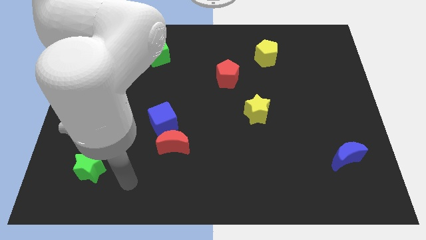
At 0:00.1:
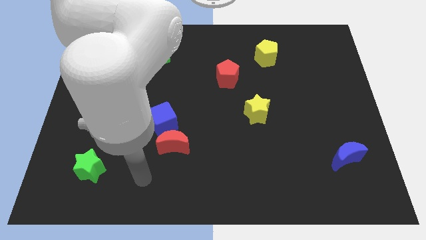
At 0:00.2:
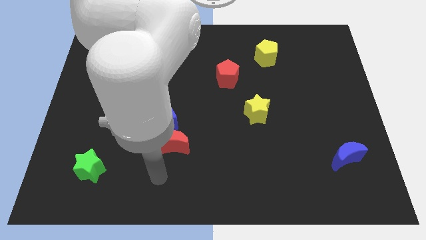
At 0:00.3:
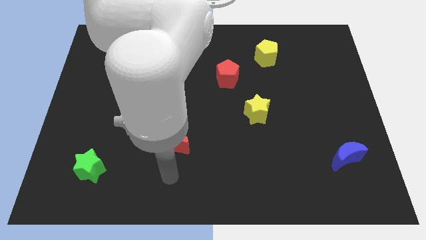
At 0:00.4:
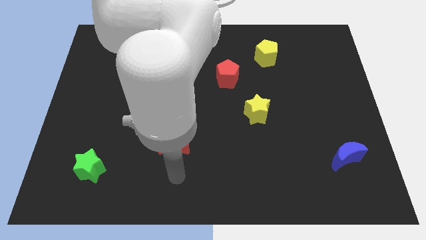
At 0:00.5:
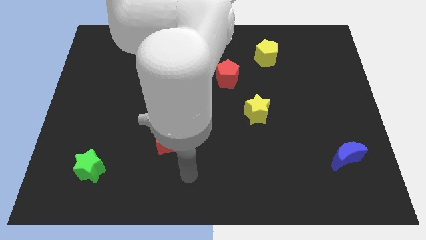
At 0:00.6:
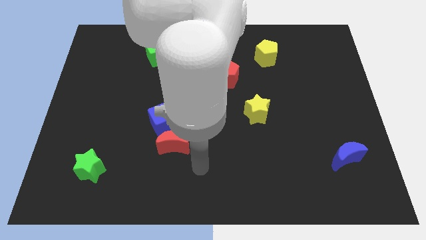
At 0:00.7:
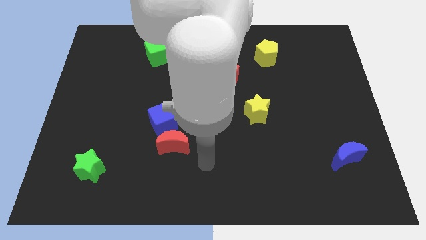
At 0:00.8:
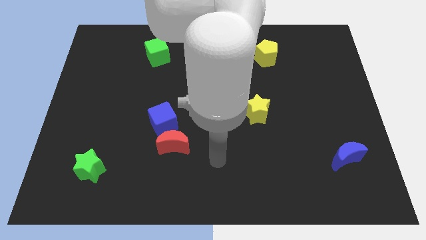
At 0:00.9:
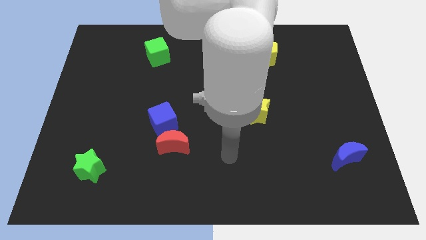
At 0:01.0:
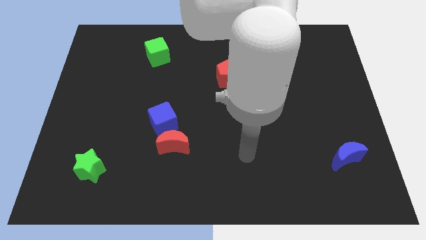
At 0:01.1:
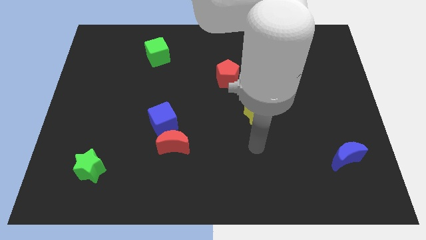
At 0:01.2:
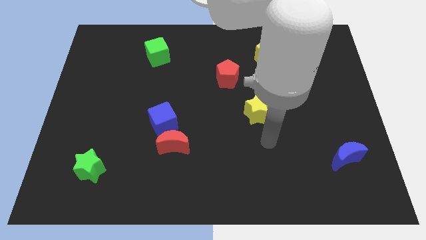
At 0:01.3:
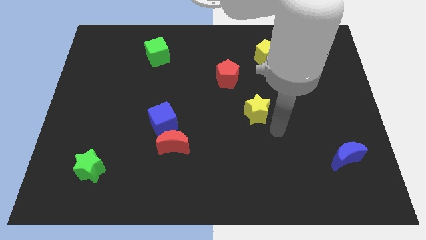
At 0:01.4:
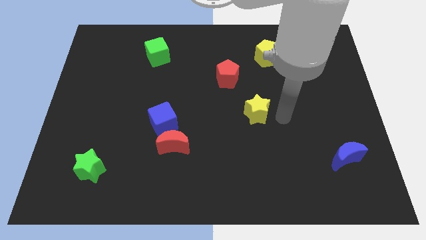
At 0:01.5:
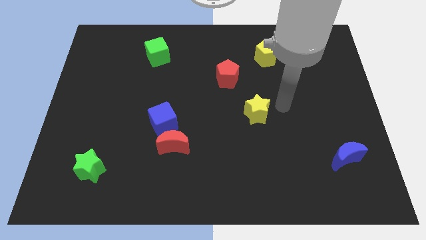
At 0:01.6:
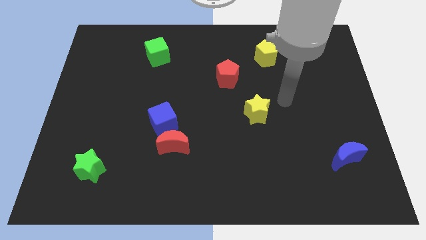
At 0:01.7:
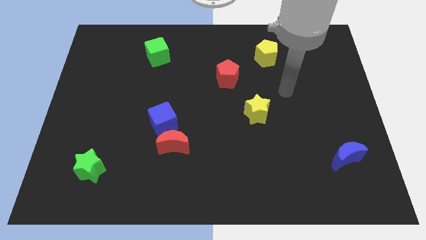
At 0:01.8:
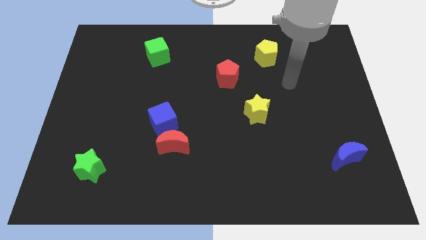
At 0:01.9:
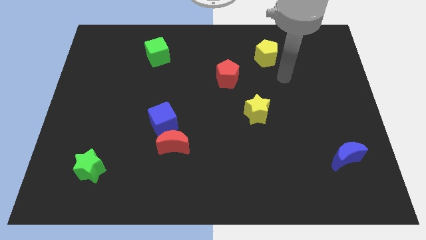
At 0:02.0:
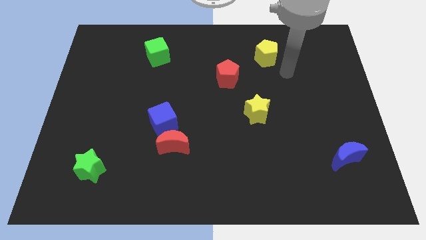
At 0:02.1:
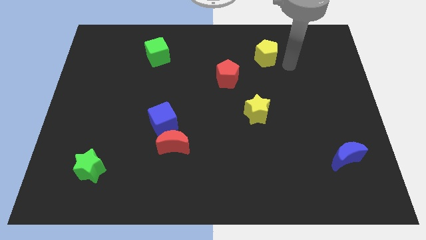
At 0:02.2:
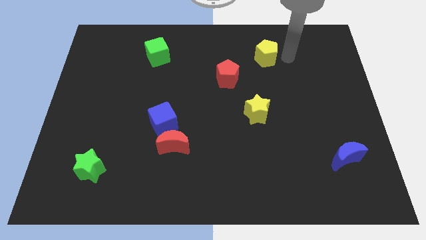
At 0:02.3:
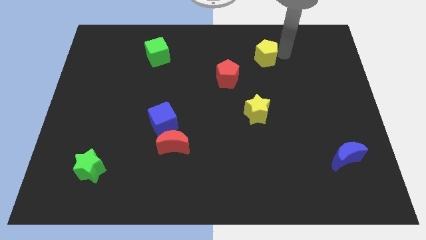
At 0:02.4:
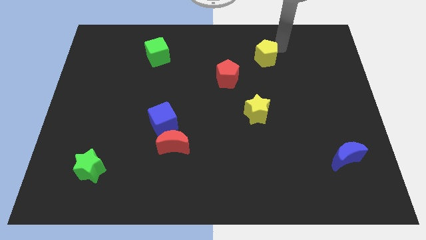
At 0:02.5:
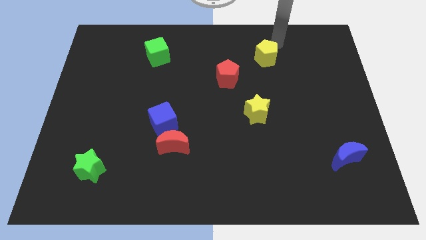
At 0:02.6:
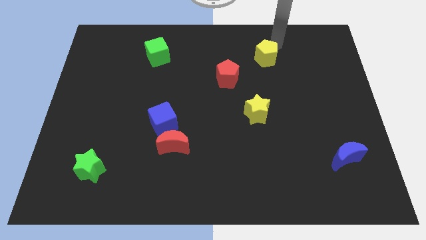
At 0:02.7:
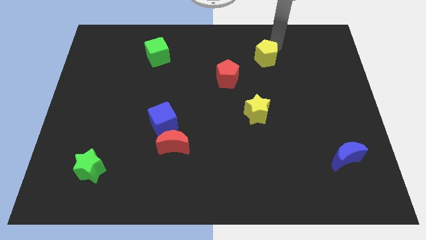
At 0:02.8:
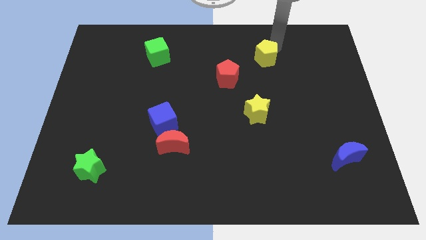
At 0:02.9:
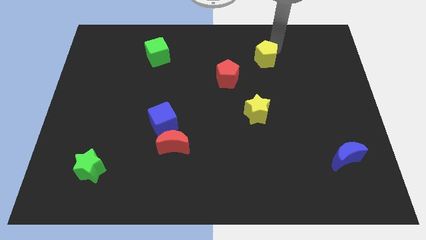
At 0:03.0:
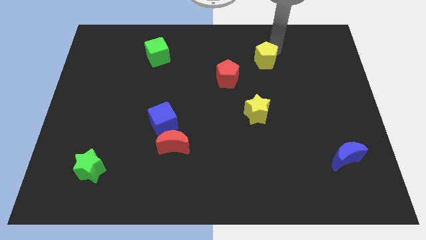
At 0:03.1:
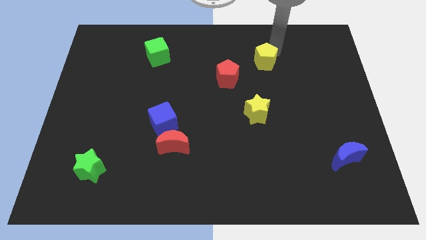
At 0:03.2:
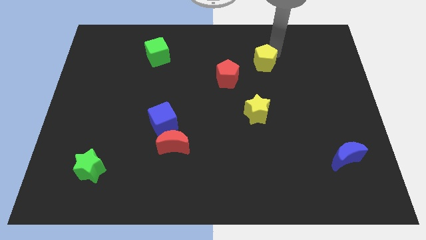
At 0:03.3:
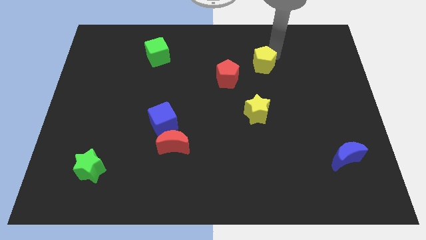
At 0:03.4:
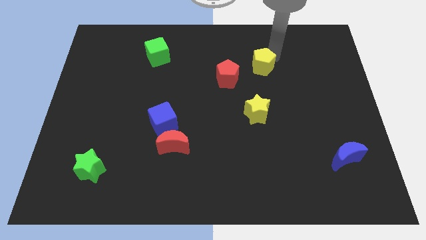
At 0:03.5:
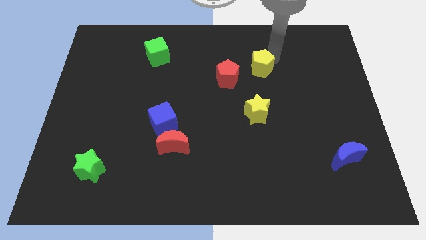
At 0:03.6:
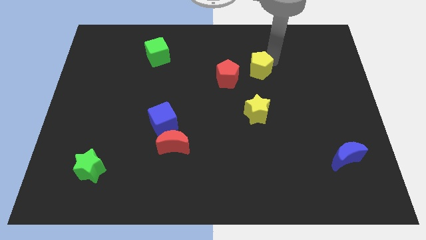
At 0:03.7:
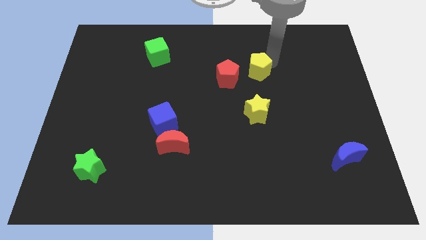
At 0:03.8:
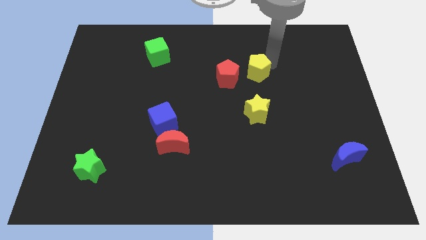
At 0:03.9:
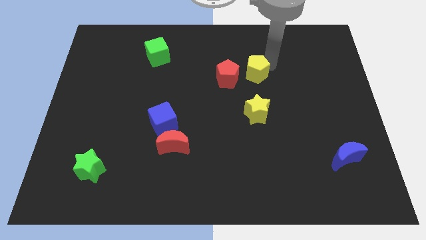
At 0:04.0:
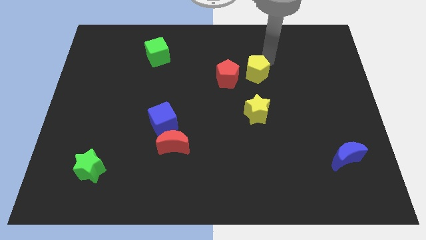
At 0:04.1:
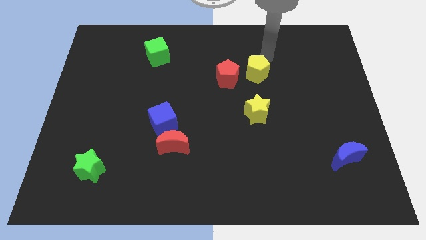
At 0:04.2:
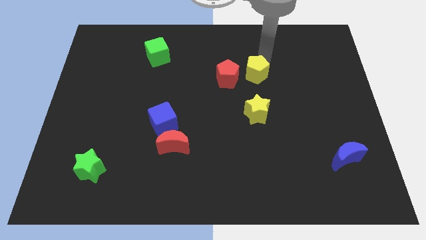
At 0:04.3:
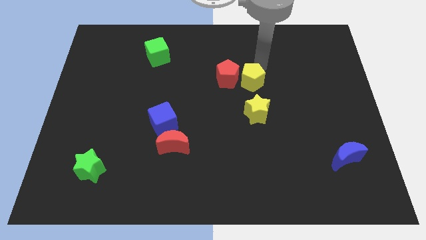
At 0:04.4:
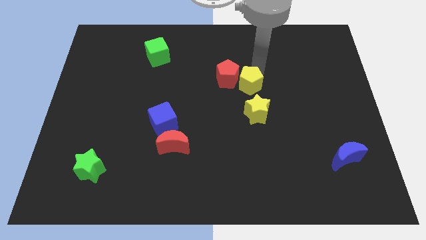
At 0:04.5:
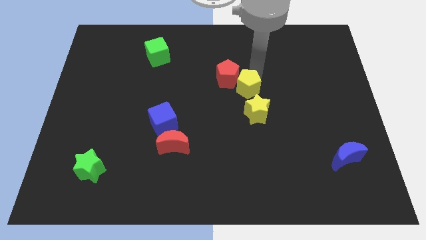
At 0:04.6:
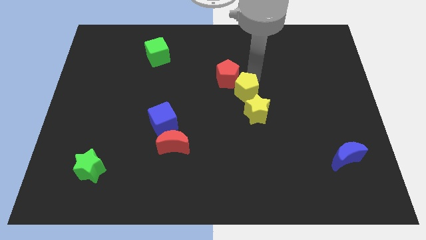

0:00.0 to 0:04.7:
slide the yellow pentagon to the bottom of the red pentagon

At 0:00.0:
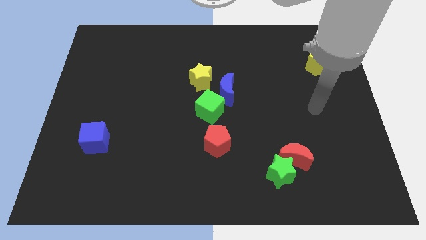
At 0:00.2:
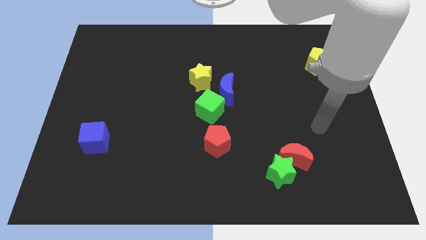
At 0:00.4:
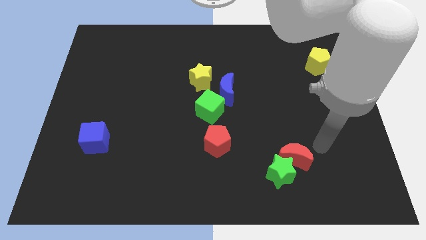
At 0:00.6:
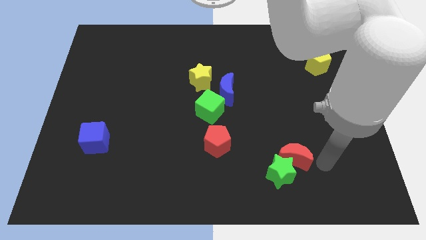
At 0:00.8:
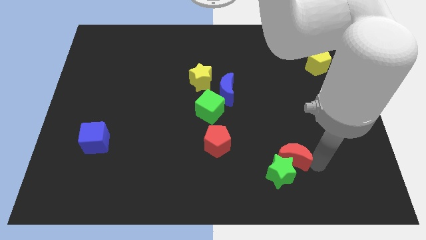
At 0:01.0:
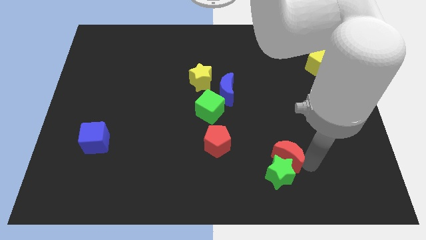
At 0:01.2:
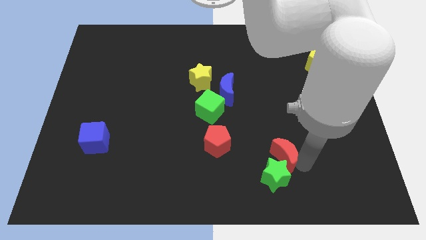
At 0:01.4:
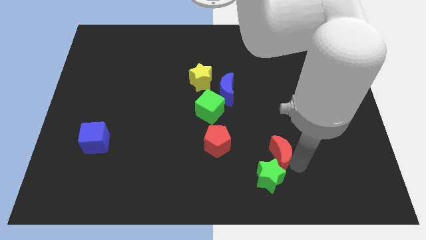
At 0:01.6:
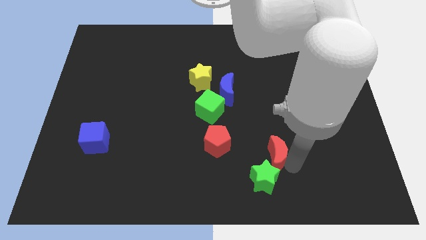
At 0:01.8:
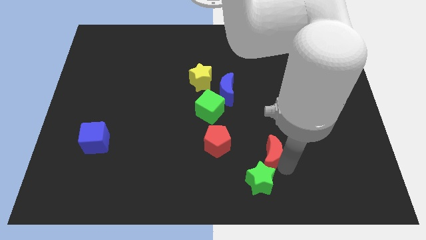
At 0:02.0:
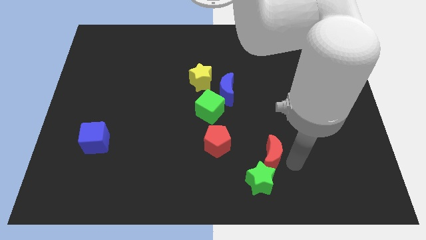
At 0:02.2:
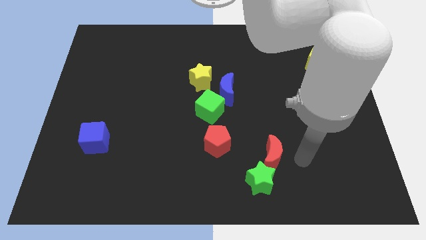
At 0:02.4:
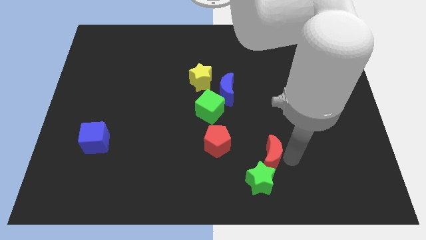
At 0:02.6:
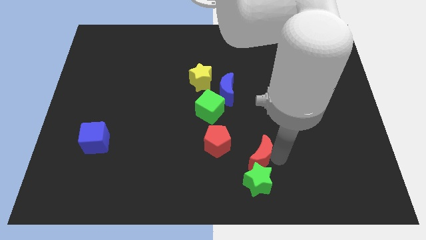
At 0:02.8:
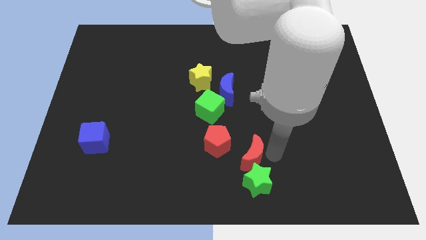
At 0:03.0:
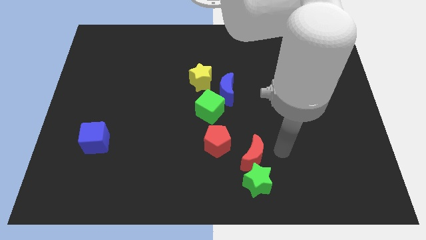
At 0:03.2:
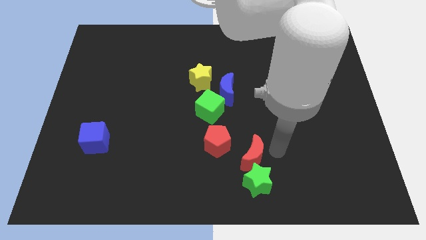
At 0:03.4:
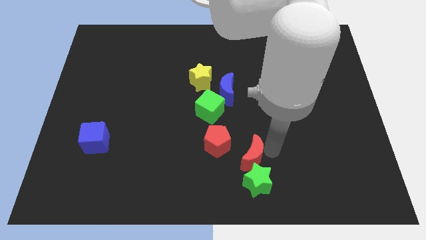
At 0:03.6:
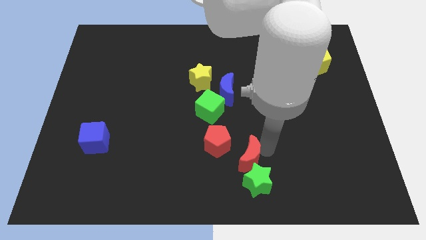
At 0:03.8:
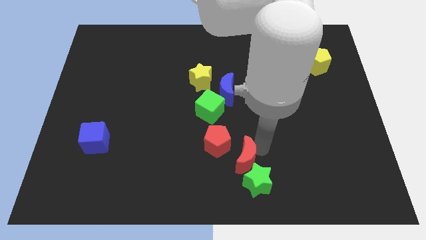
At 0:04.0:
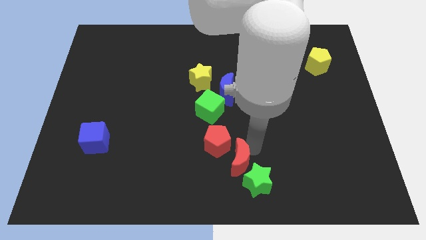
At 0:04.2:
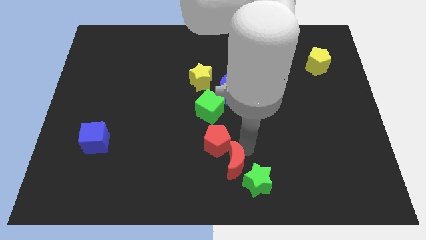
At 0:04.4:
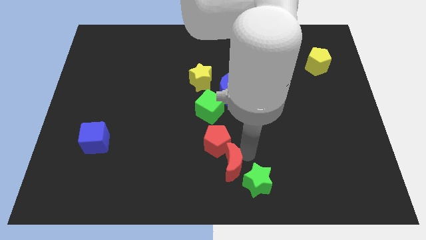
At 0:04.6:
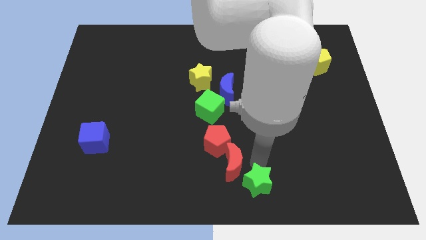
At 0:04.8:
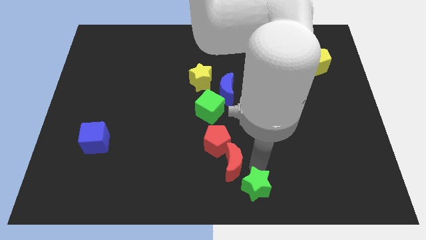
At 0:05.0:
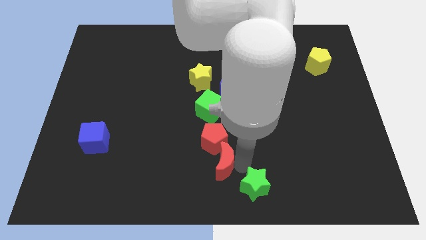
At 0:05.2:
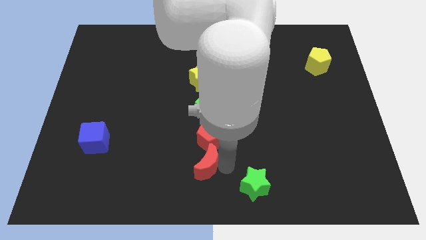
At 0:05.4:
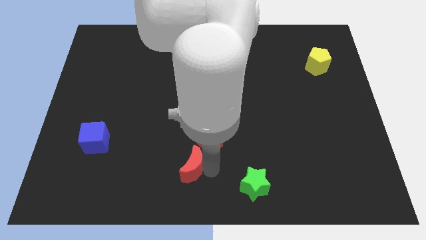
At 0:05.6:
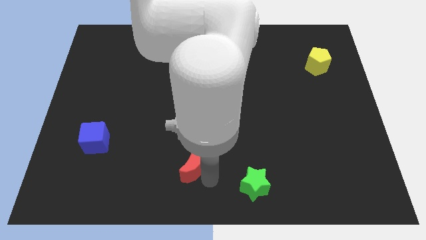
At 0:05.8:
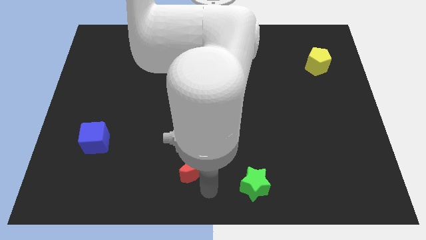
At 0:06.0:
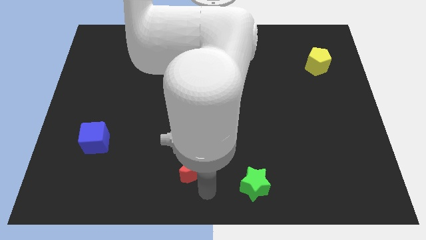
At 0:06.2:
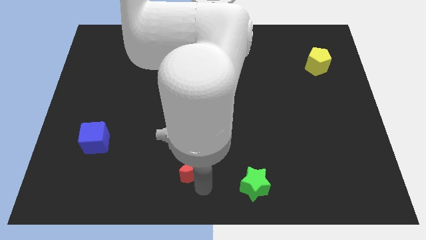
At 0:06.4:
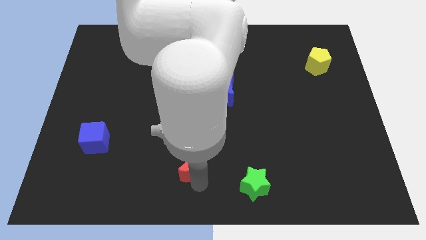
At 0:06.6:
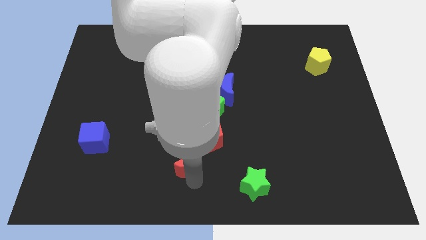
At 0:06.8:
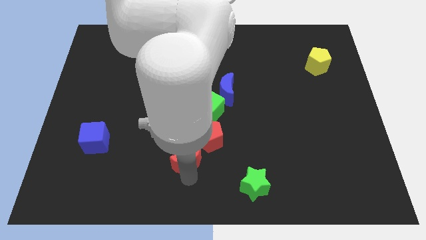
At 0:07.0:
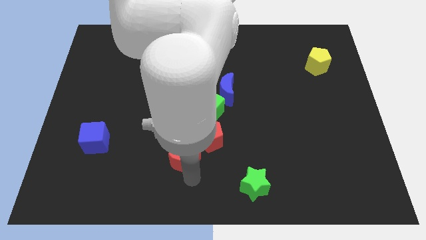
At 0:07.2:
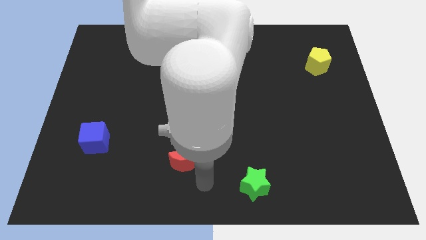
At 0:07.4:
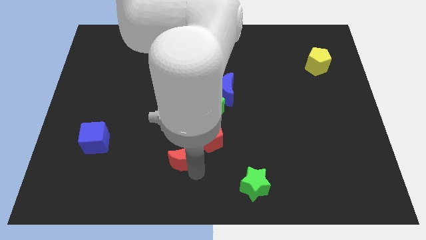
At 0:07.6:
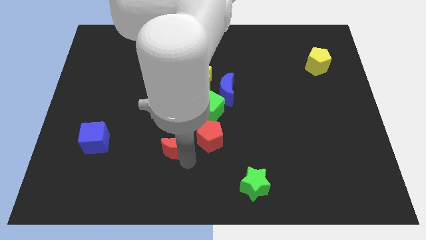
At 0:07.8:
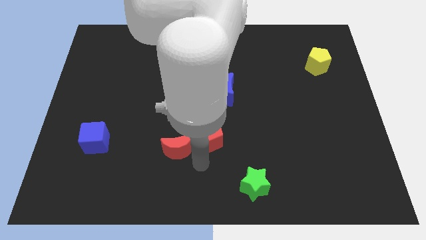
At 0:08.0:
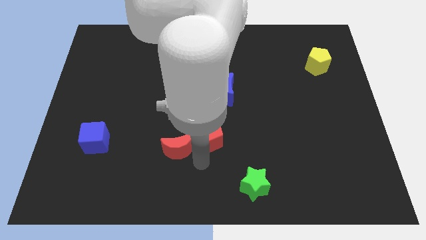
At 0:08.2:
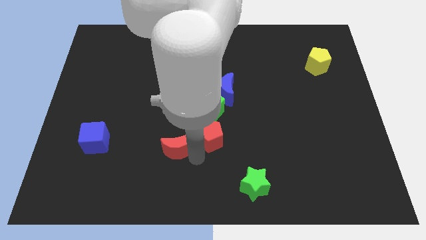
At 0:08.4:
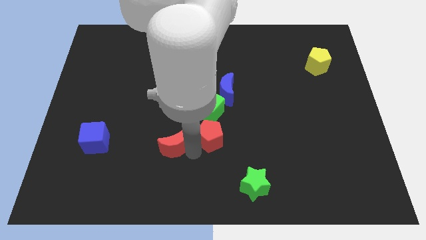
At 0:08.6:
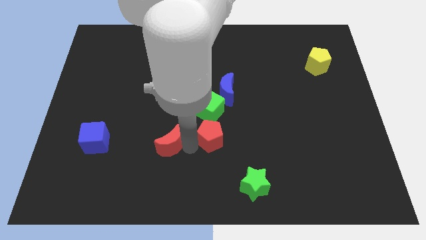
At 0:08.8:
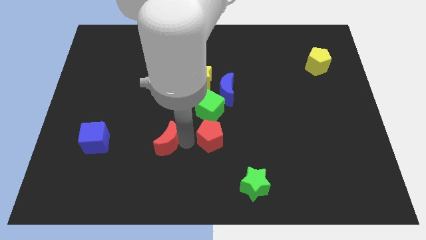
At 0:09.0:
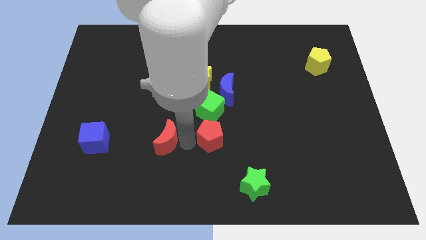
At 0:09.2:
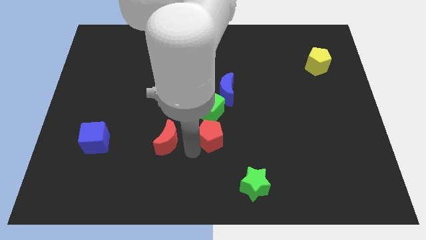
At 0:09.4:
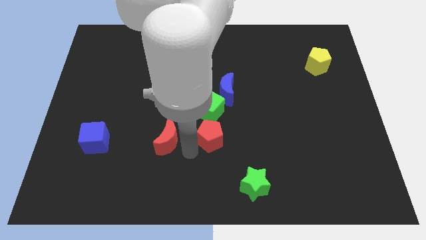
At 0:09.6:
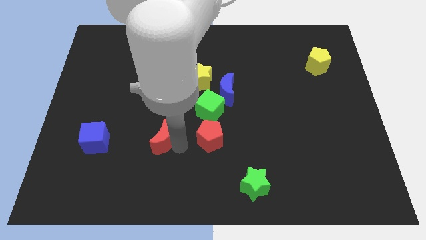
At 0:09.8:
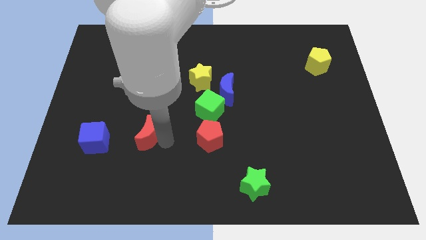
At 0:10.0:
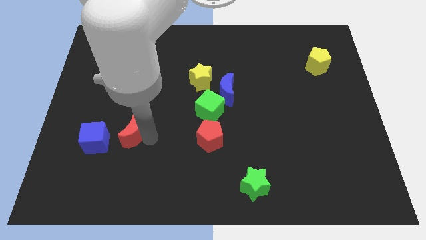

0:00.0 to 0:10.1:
slide the red moon diagonally up and to the right of the blue cube
